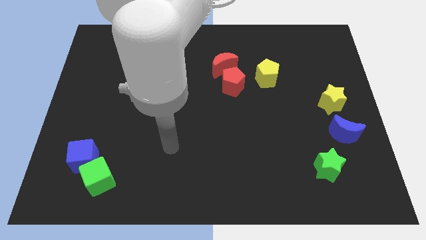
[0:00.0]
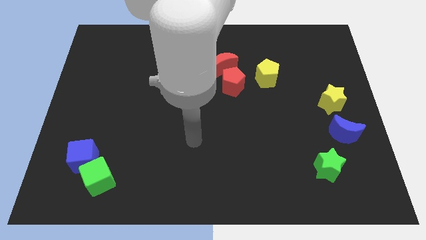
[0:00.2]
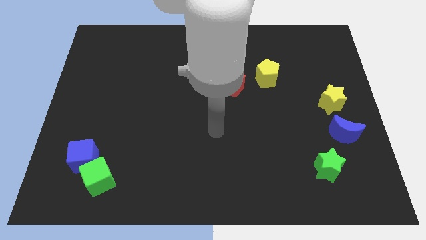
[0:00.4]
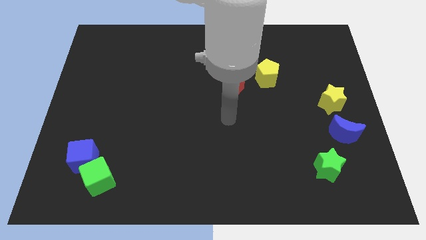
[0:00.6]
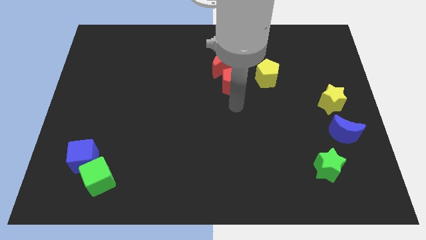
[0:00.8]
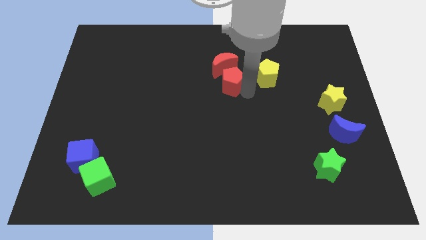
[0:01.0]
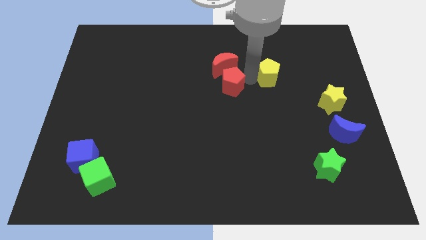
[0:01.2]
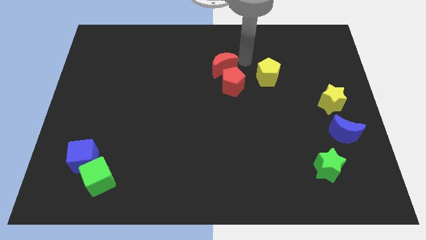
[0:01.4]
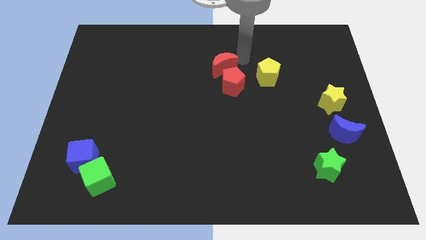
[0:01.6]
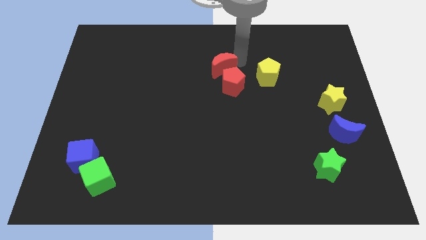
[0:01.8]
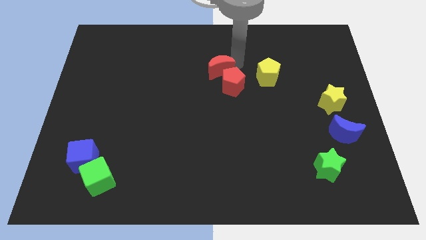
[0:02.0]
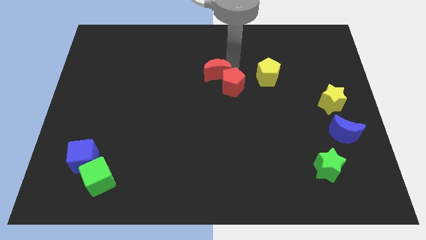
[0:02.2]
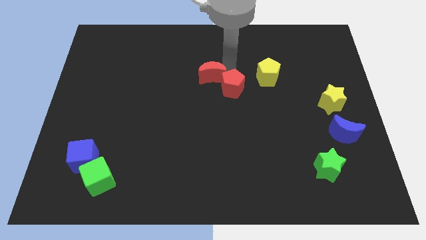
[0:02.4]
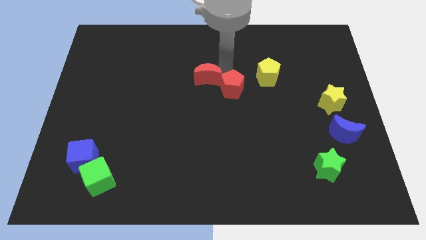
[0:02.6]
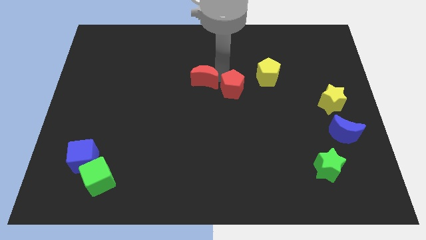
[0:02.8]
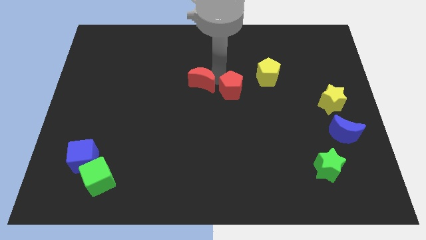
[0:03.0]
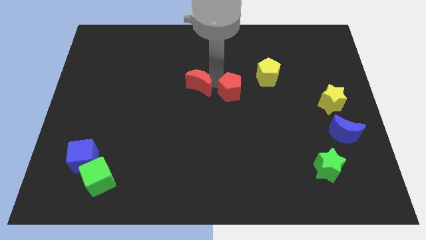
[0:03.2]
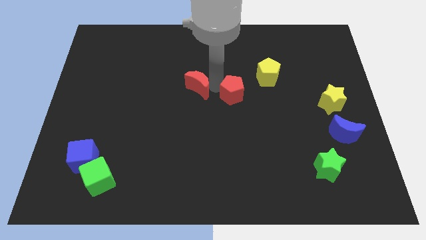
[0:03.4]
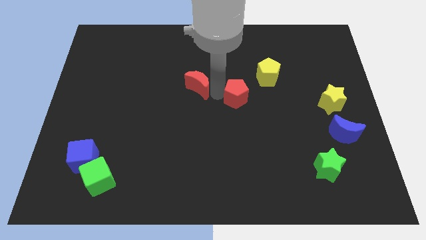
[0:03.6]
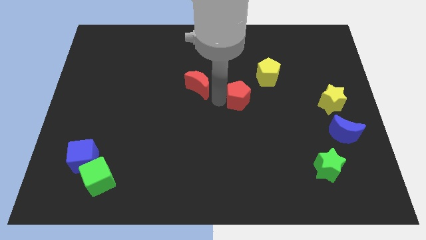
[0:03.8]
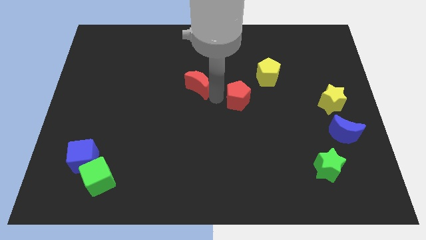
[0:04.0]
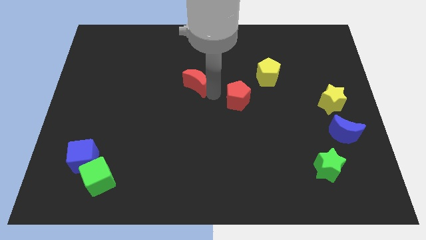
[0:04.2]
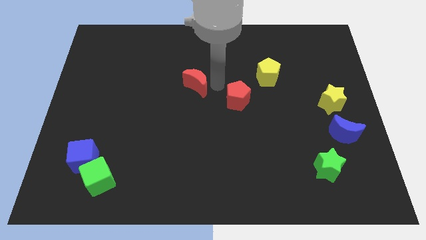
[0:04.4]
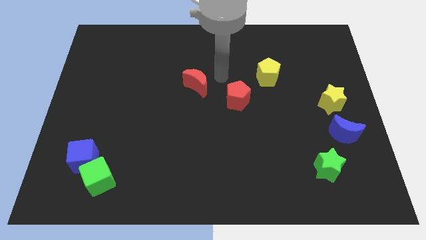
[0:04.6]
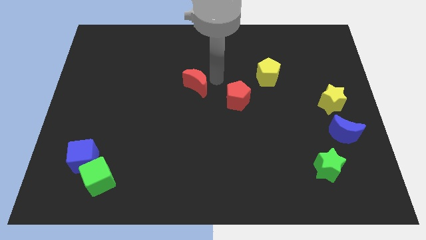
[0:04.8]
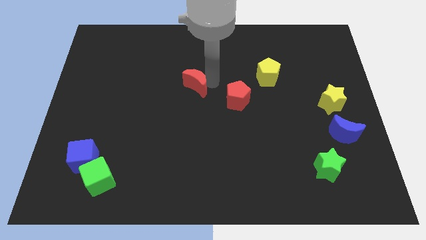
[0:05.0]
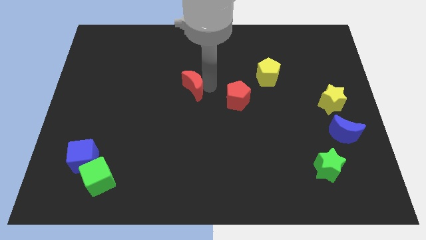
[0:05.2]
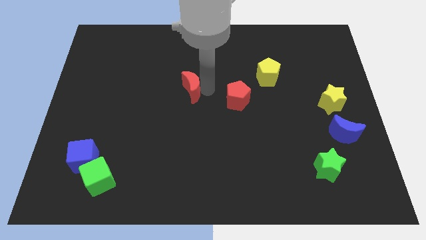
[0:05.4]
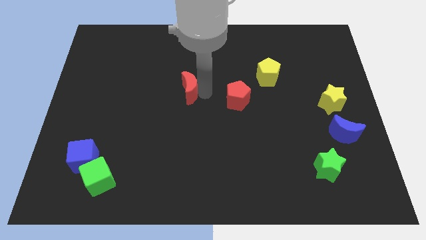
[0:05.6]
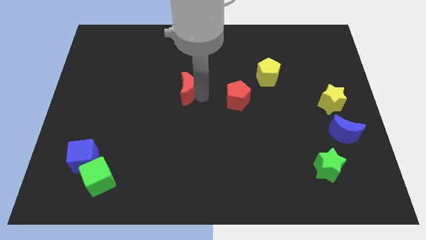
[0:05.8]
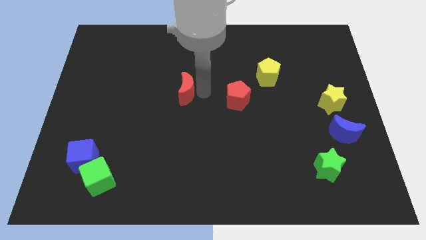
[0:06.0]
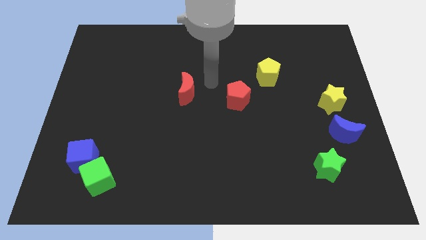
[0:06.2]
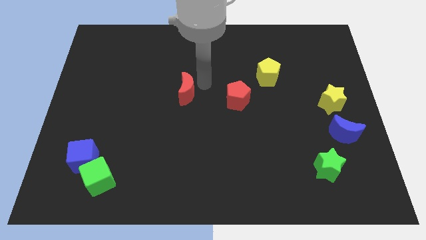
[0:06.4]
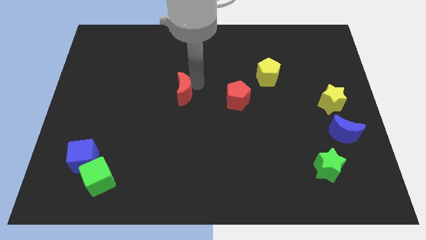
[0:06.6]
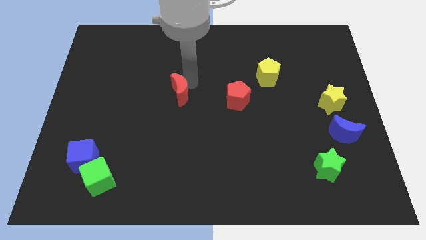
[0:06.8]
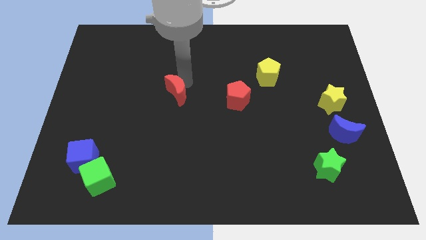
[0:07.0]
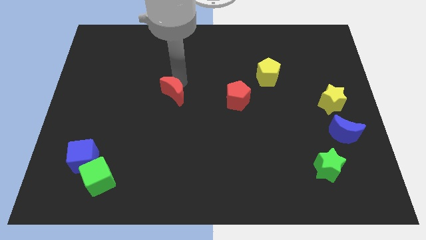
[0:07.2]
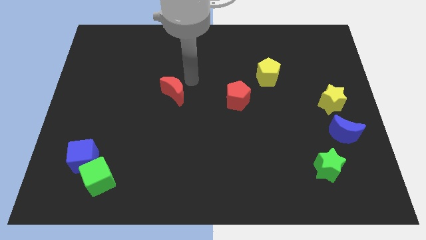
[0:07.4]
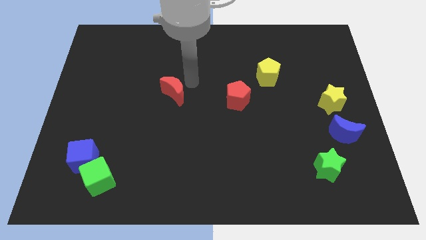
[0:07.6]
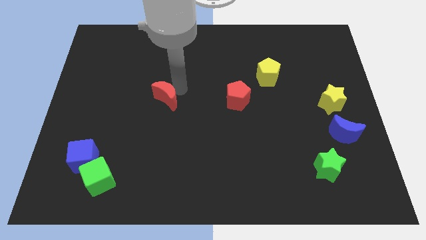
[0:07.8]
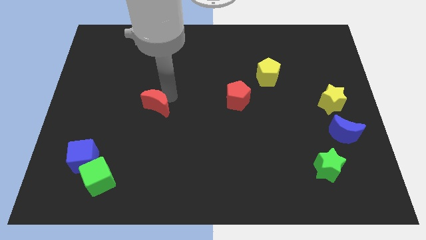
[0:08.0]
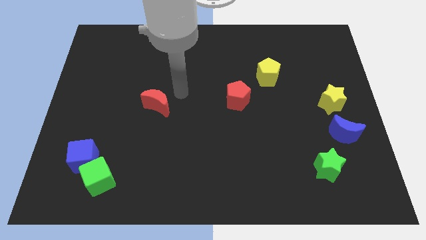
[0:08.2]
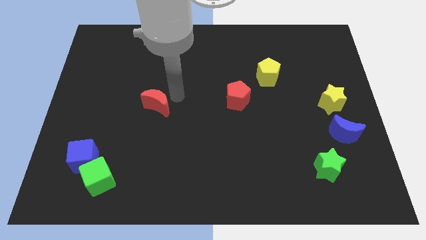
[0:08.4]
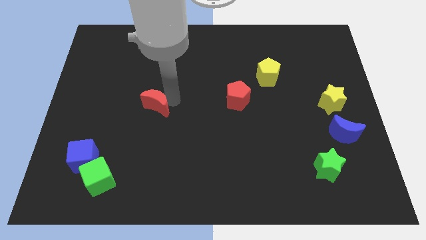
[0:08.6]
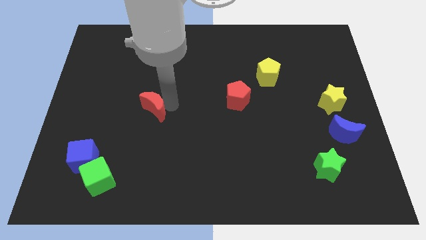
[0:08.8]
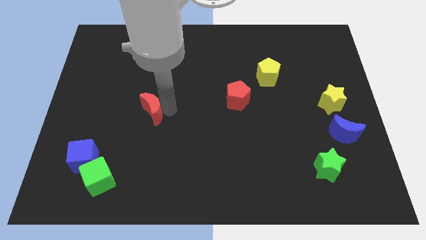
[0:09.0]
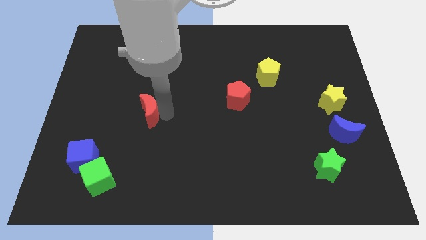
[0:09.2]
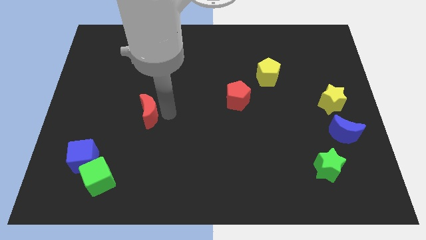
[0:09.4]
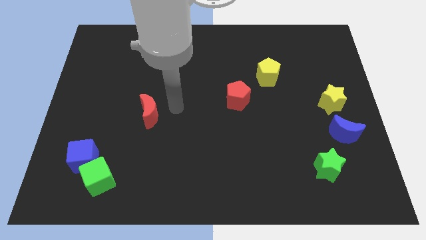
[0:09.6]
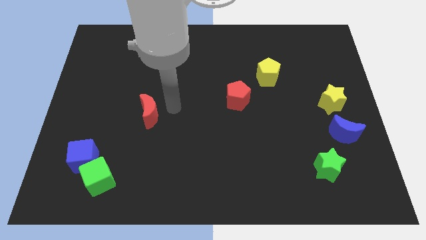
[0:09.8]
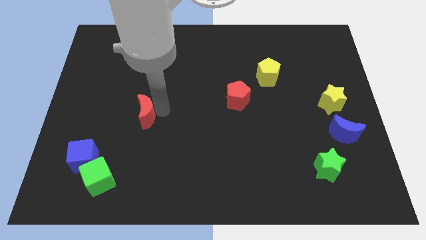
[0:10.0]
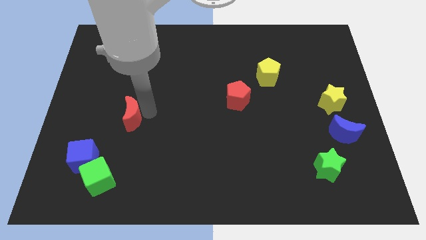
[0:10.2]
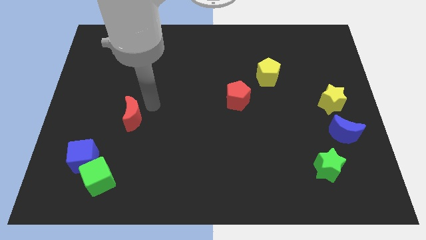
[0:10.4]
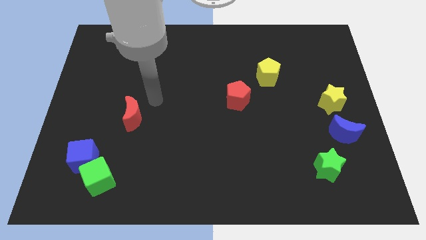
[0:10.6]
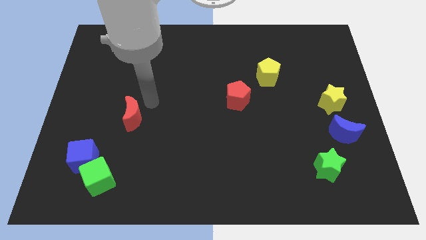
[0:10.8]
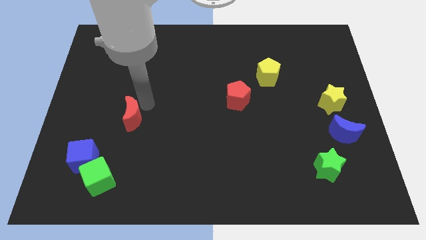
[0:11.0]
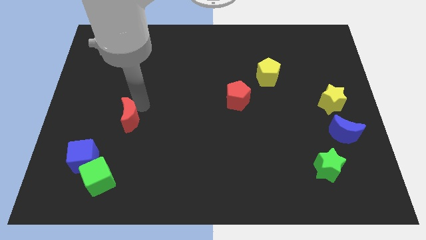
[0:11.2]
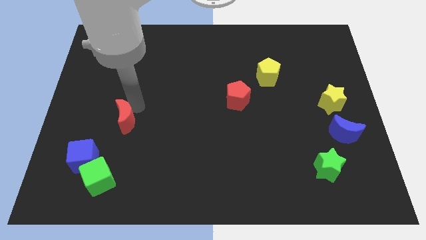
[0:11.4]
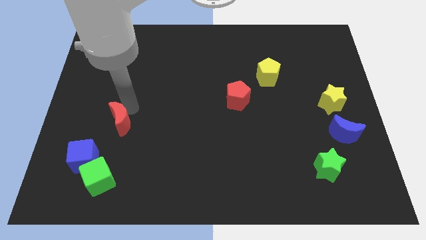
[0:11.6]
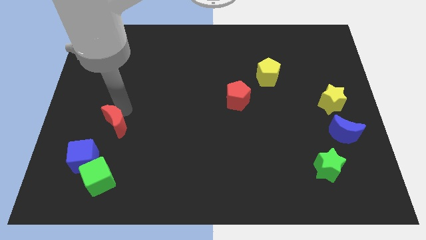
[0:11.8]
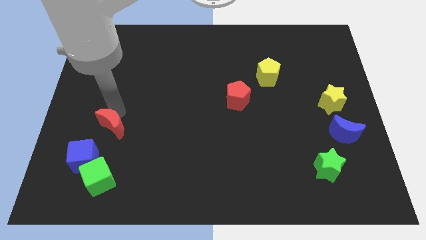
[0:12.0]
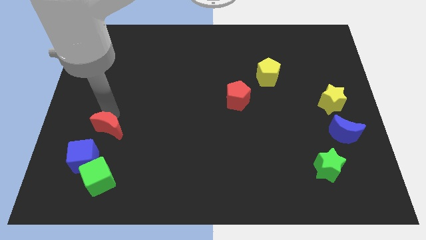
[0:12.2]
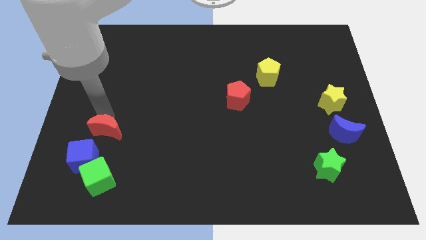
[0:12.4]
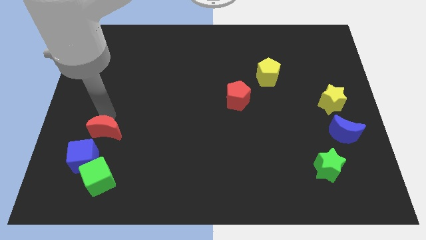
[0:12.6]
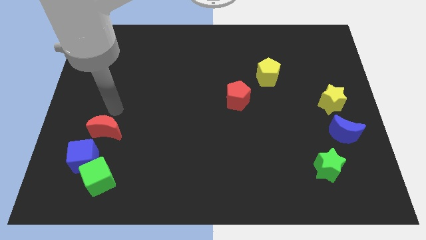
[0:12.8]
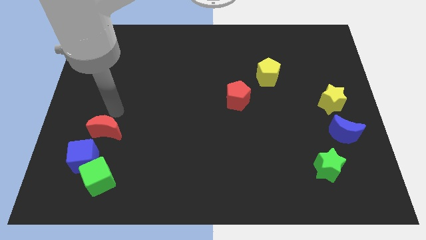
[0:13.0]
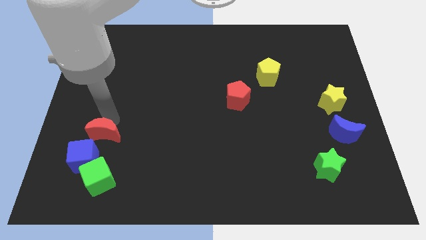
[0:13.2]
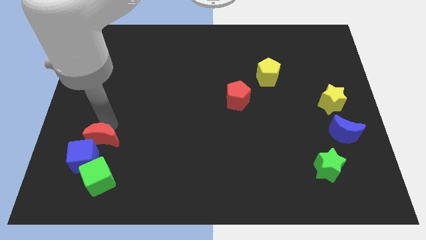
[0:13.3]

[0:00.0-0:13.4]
put the red moon to the blue cube

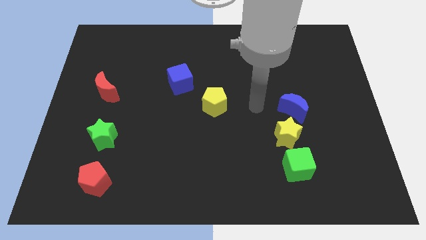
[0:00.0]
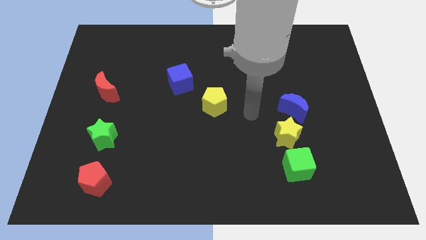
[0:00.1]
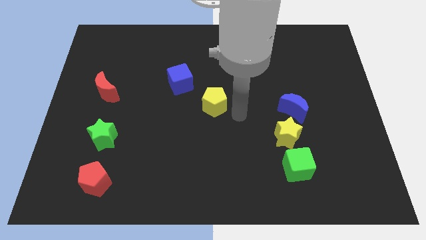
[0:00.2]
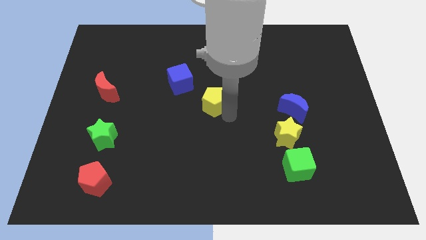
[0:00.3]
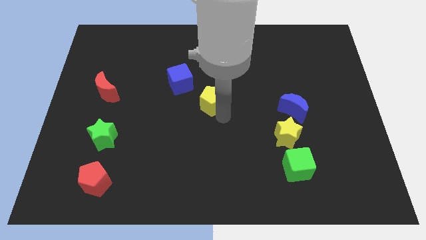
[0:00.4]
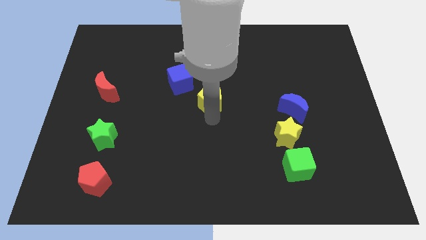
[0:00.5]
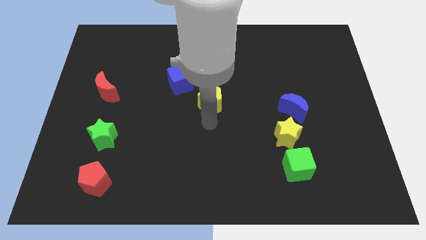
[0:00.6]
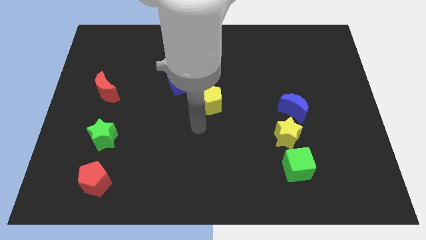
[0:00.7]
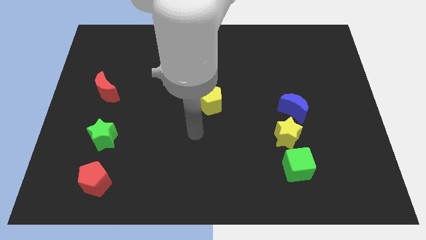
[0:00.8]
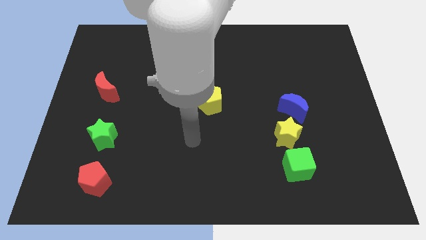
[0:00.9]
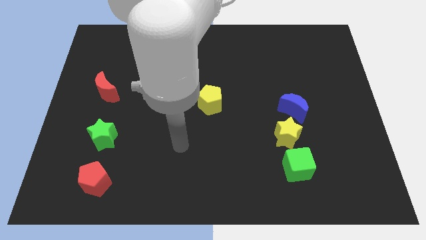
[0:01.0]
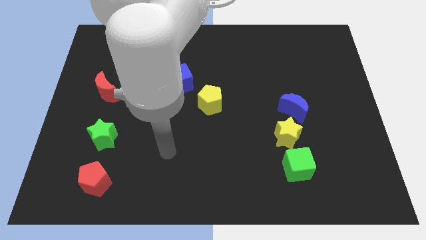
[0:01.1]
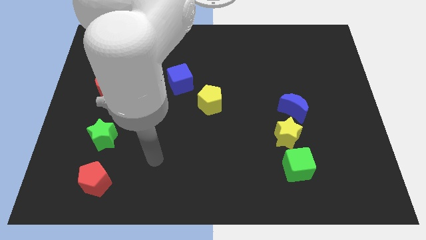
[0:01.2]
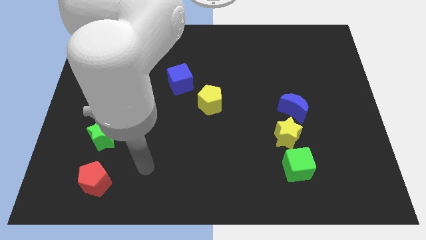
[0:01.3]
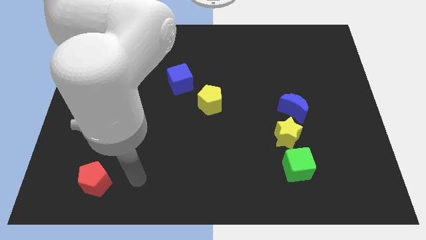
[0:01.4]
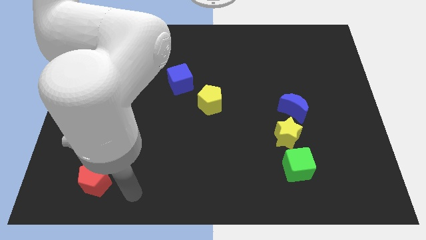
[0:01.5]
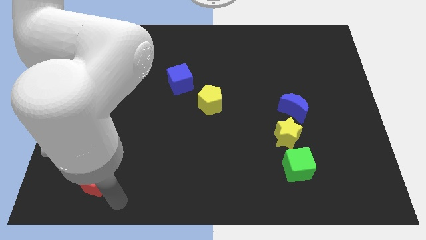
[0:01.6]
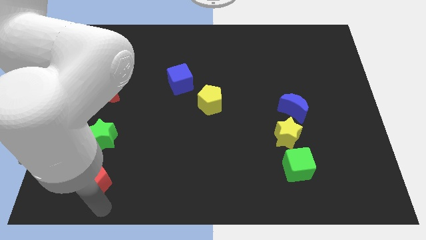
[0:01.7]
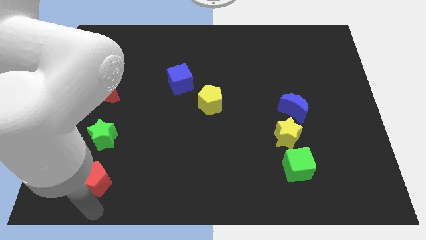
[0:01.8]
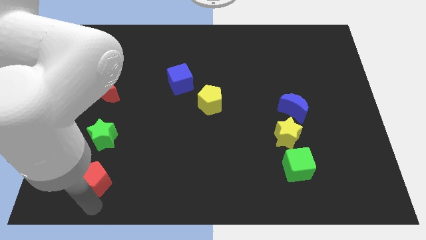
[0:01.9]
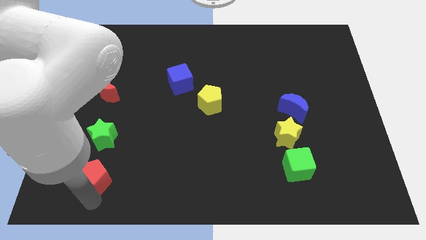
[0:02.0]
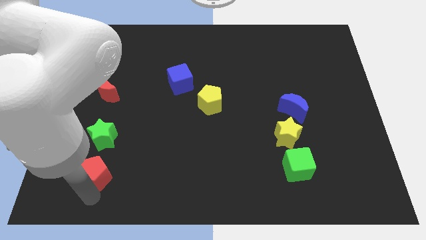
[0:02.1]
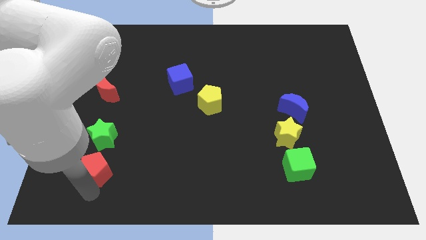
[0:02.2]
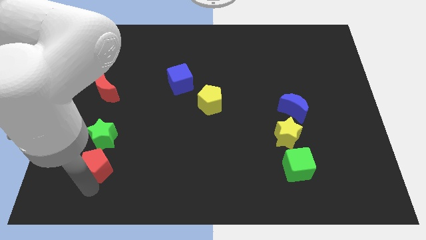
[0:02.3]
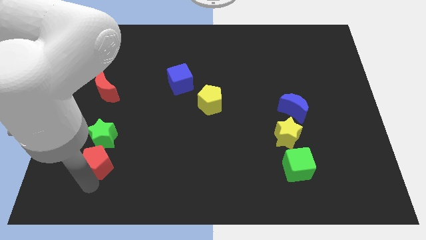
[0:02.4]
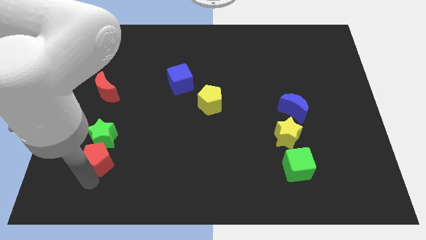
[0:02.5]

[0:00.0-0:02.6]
put the red pentagon next to the green star
